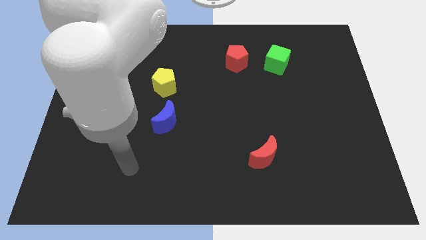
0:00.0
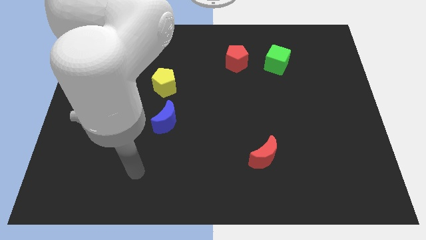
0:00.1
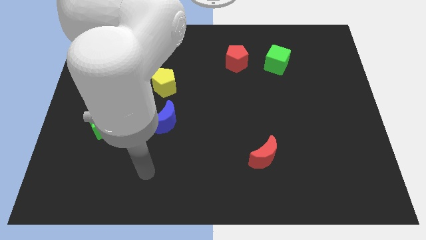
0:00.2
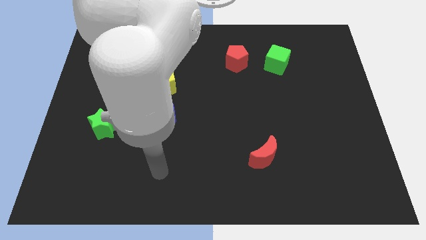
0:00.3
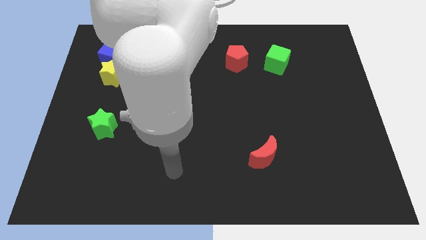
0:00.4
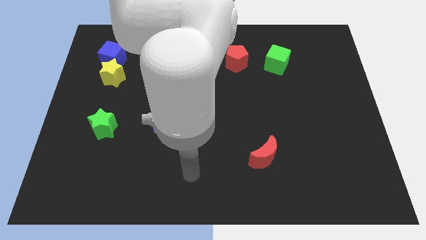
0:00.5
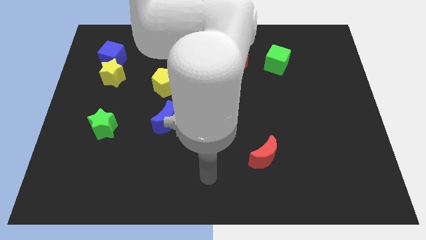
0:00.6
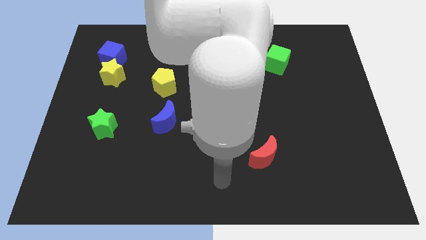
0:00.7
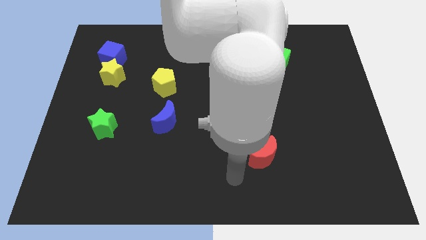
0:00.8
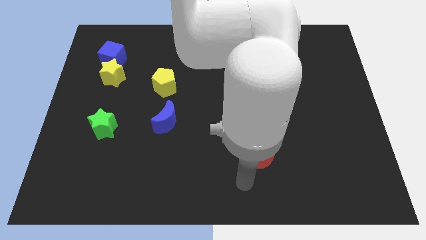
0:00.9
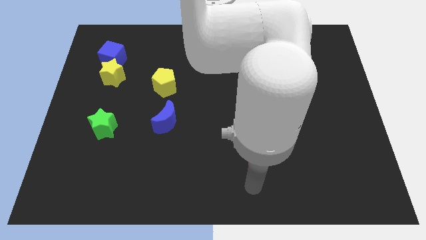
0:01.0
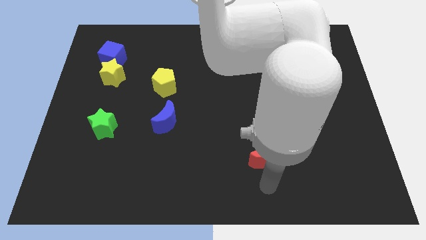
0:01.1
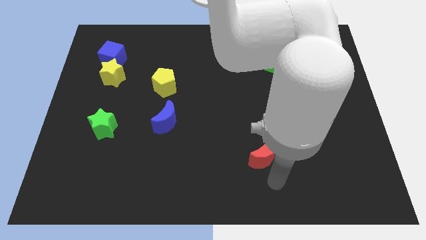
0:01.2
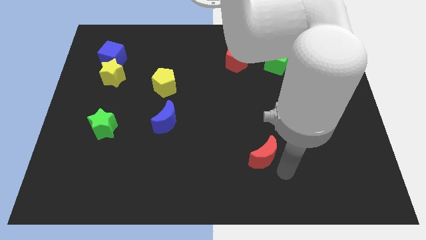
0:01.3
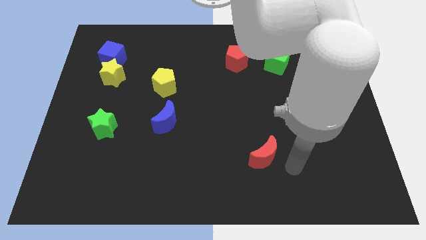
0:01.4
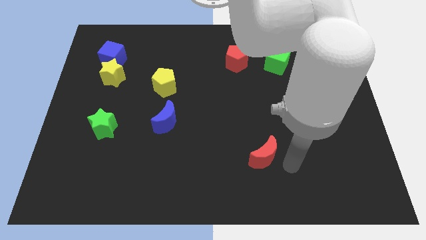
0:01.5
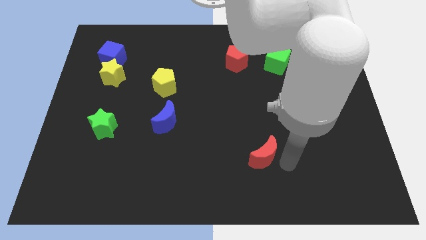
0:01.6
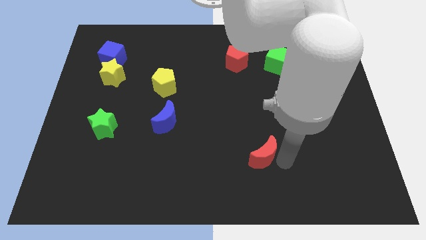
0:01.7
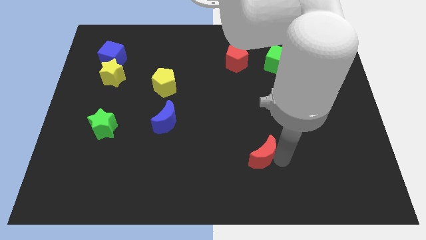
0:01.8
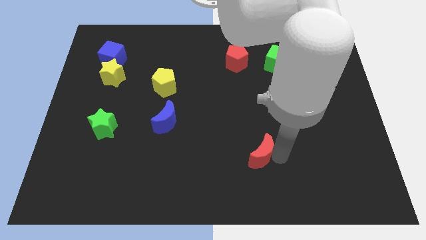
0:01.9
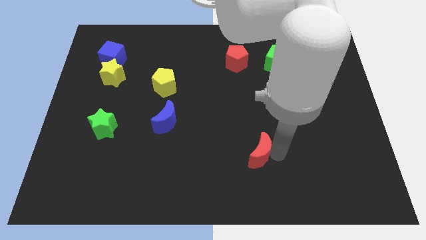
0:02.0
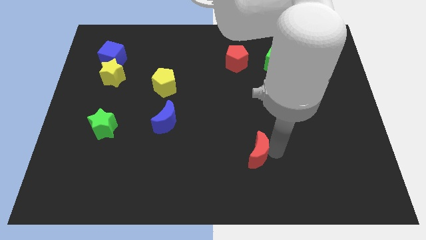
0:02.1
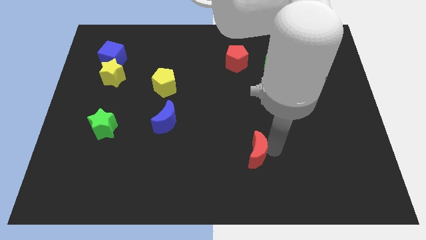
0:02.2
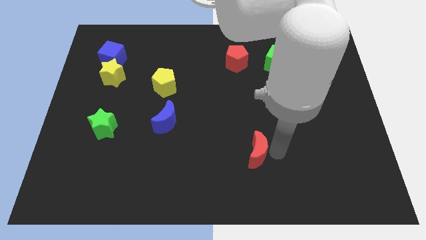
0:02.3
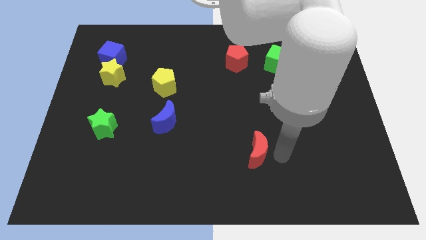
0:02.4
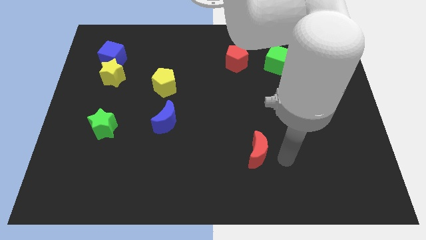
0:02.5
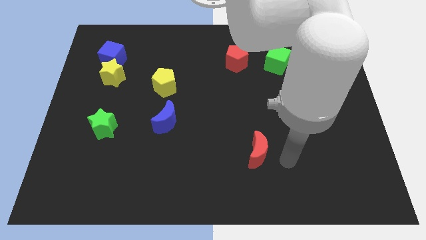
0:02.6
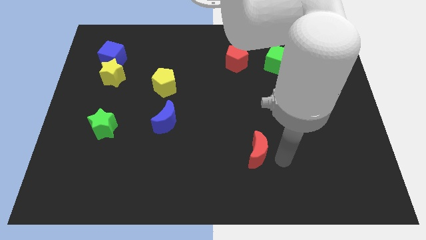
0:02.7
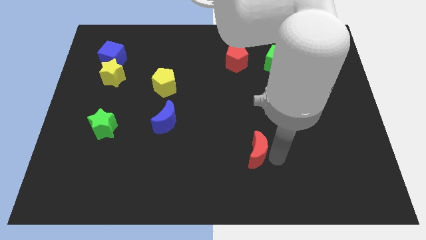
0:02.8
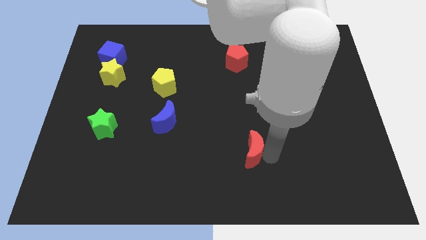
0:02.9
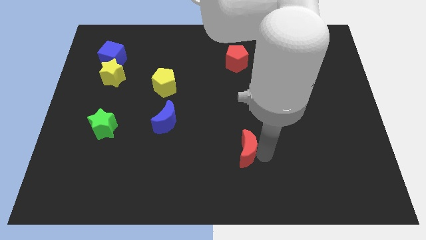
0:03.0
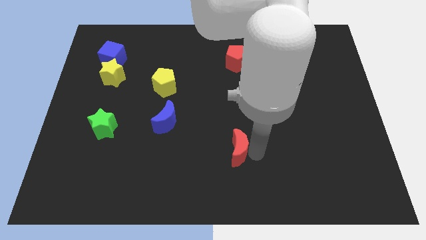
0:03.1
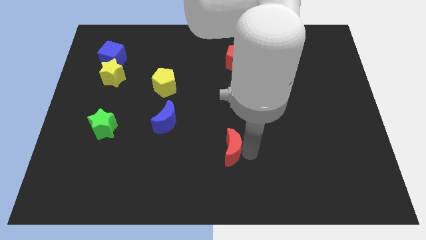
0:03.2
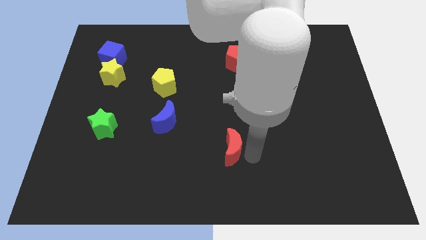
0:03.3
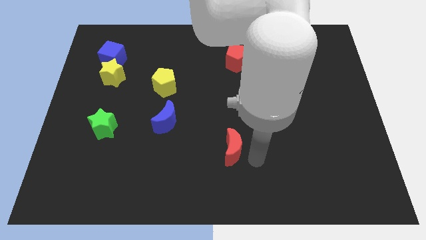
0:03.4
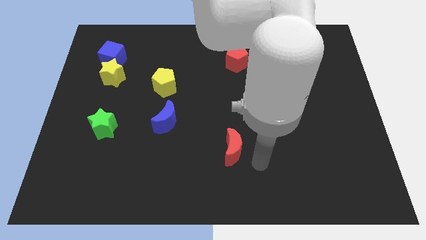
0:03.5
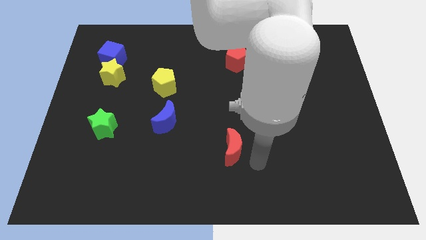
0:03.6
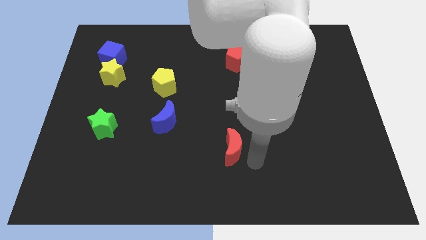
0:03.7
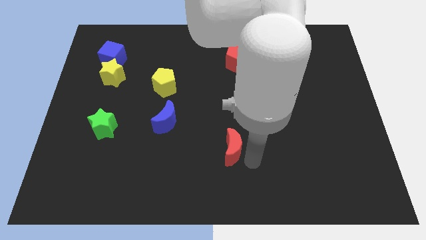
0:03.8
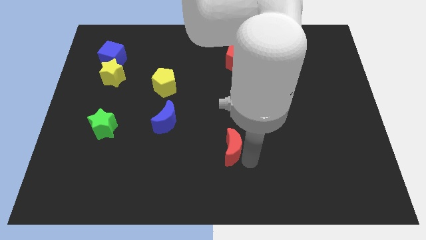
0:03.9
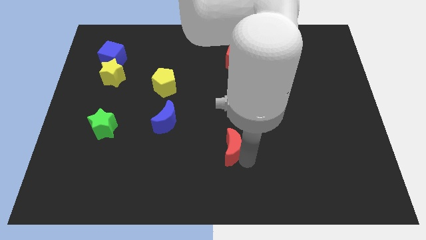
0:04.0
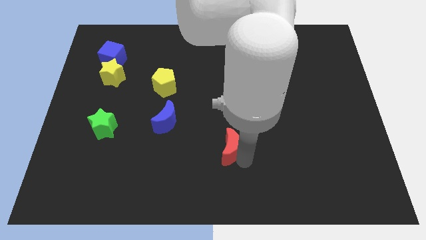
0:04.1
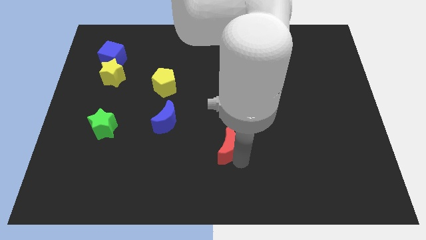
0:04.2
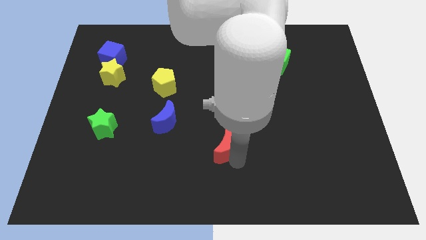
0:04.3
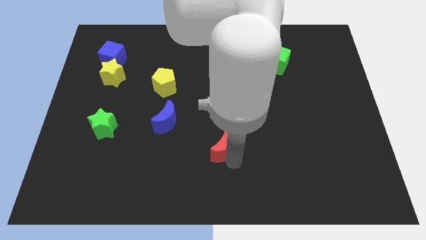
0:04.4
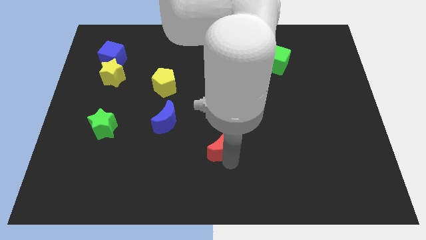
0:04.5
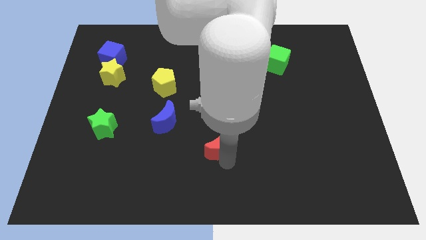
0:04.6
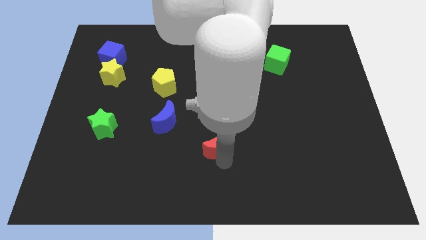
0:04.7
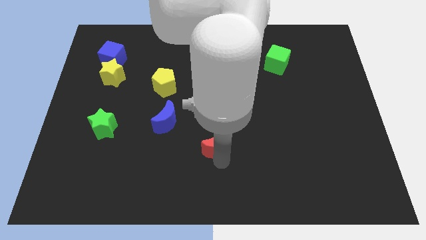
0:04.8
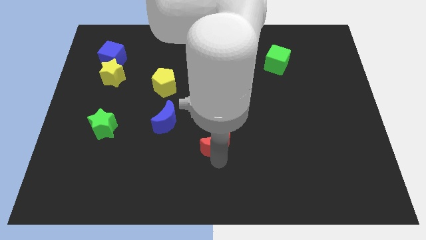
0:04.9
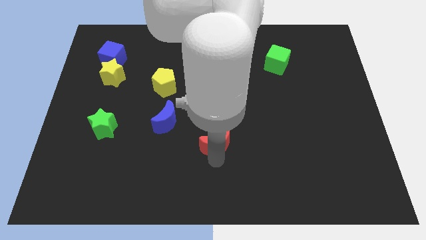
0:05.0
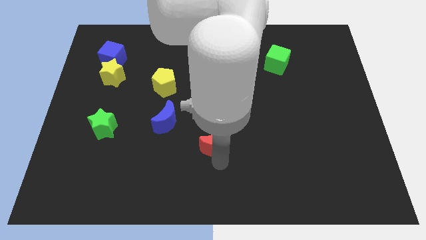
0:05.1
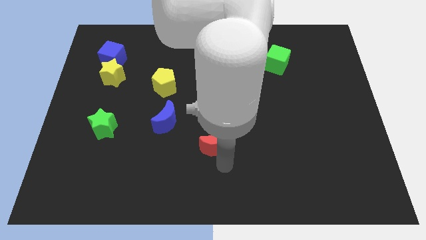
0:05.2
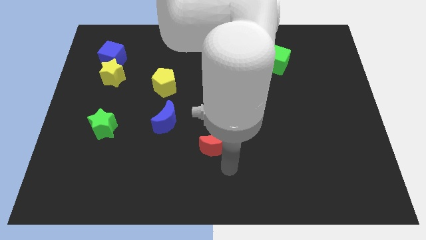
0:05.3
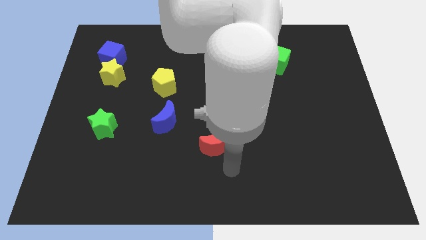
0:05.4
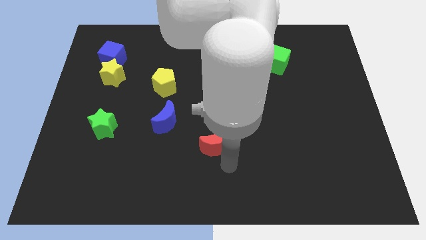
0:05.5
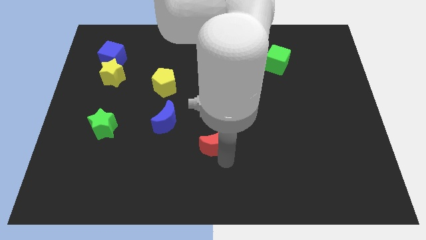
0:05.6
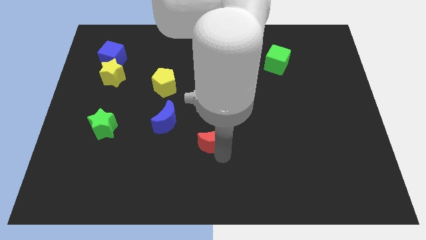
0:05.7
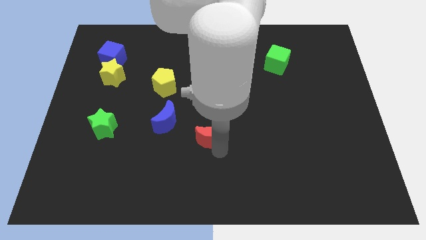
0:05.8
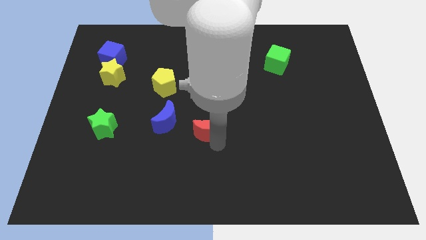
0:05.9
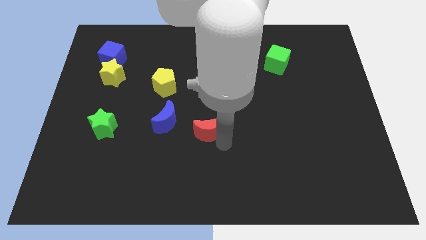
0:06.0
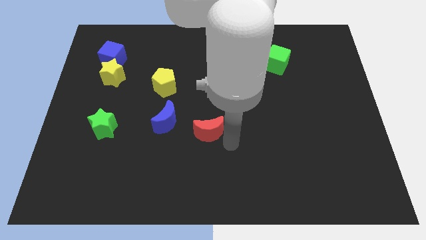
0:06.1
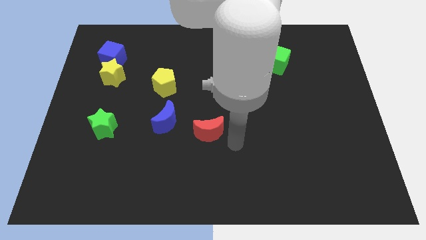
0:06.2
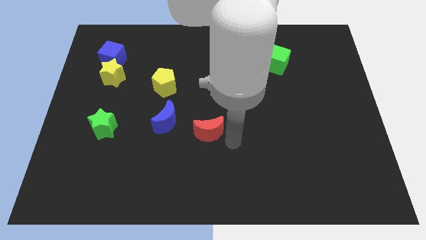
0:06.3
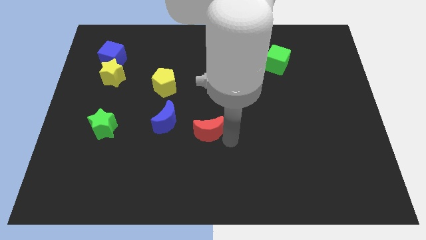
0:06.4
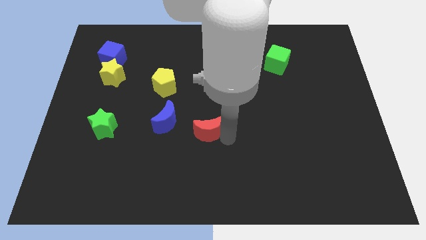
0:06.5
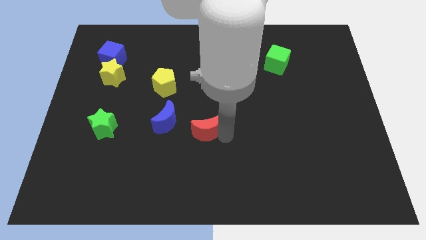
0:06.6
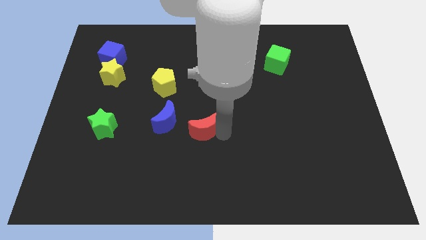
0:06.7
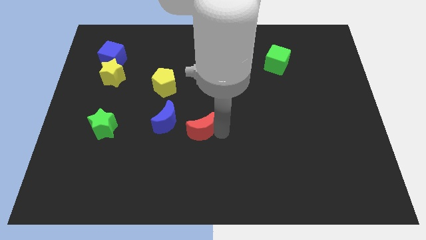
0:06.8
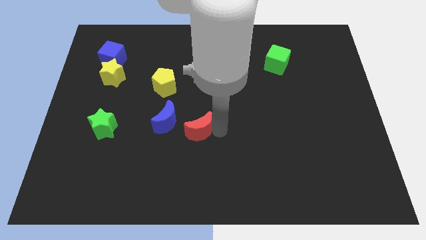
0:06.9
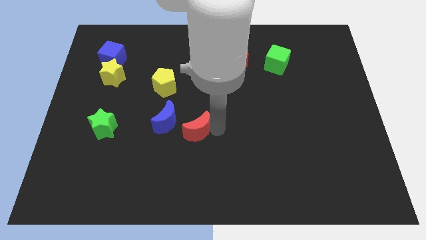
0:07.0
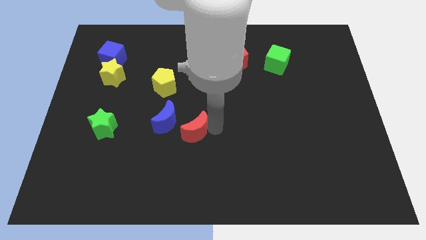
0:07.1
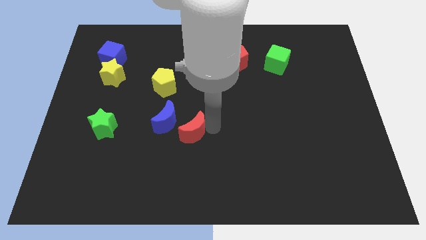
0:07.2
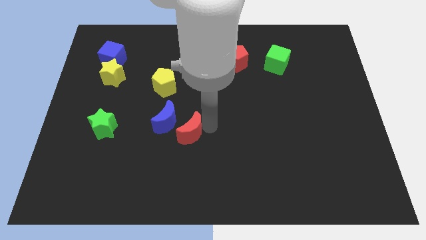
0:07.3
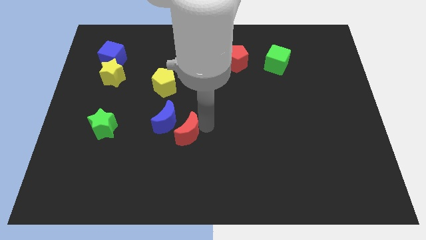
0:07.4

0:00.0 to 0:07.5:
put the red moon towards the blue moon
